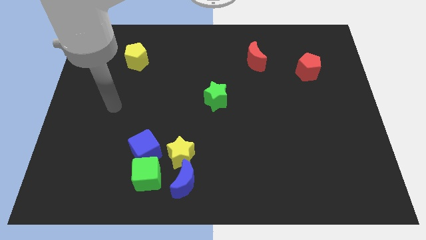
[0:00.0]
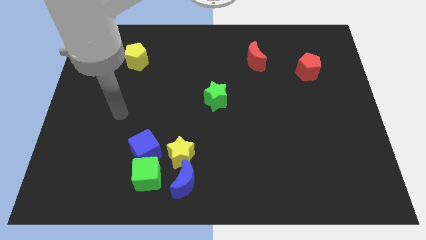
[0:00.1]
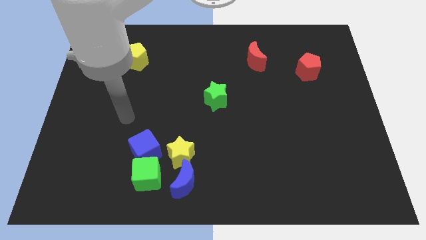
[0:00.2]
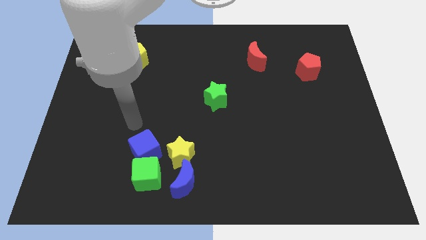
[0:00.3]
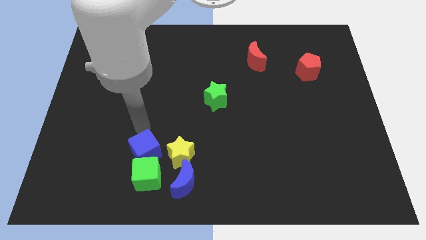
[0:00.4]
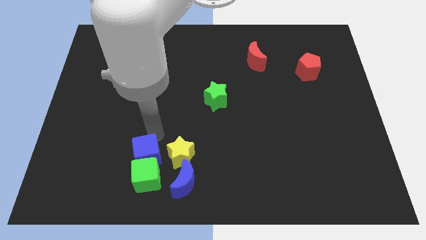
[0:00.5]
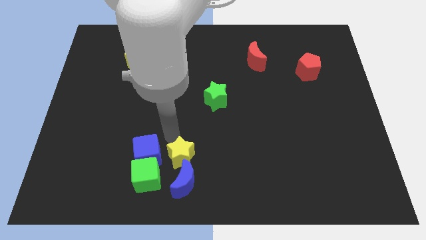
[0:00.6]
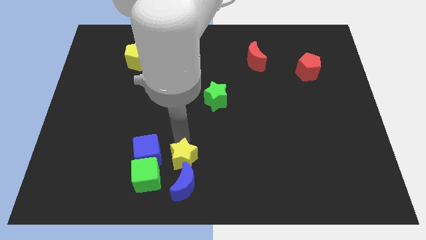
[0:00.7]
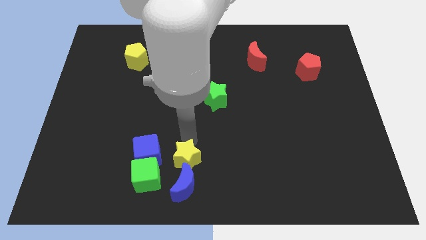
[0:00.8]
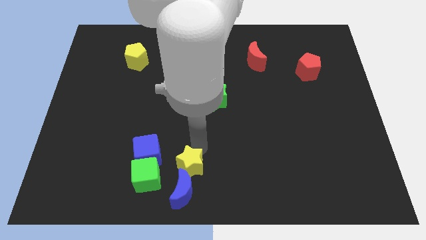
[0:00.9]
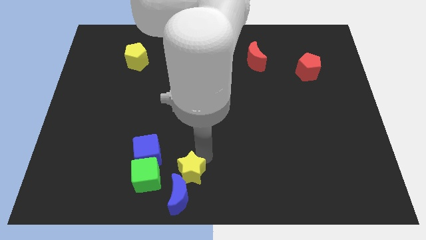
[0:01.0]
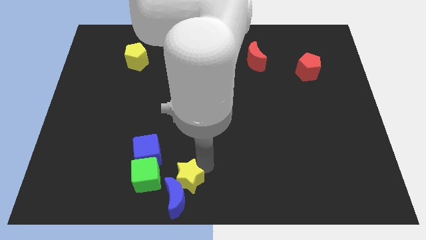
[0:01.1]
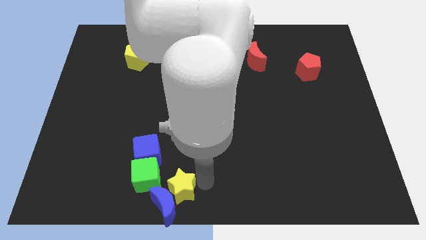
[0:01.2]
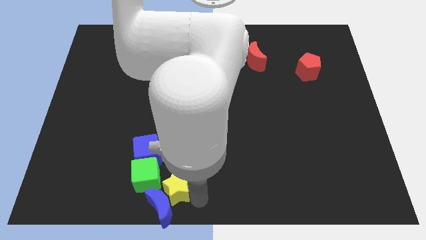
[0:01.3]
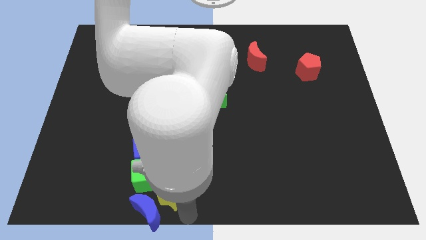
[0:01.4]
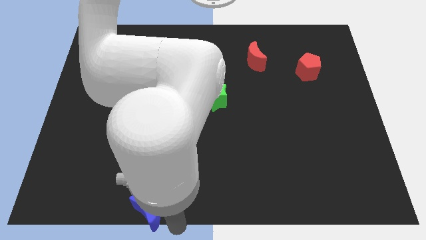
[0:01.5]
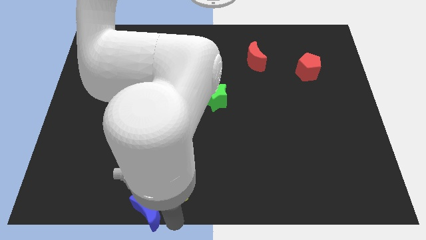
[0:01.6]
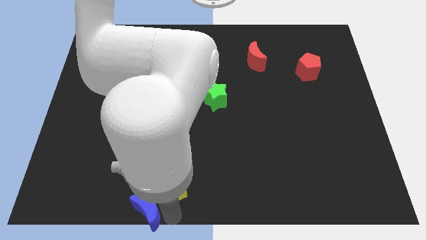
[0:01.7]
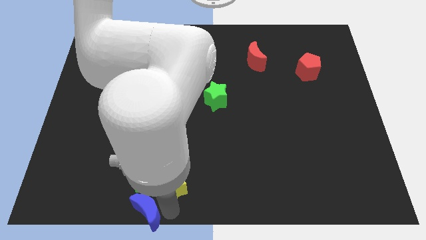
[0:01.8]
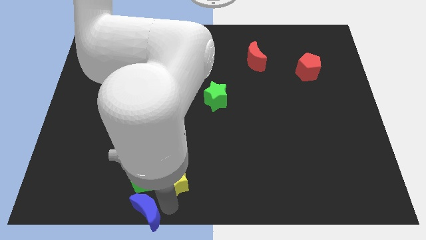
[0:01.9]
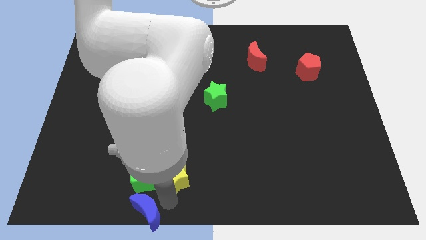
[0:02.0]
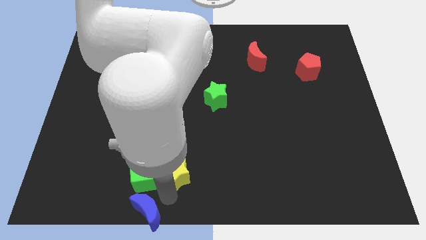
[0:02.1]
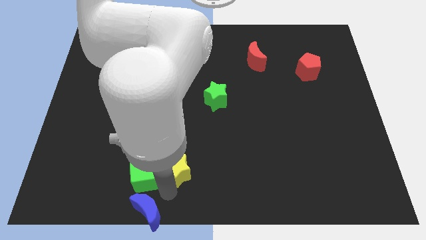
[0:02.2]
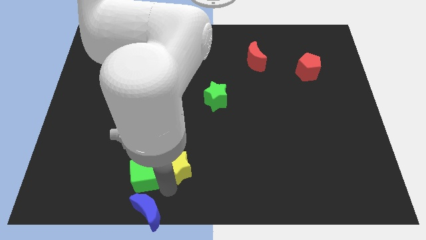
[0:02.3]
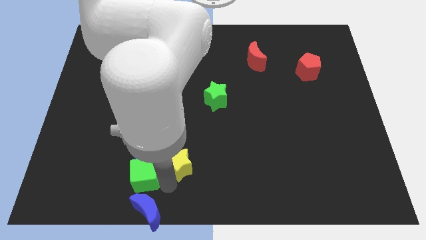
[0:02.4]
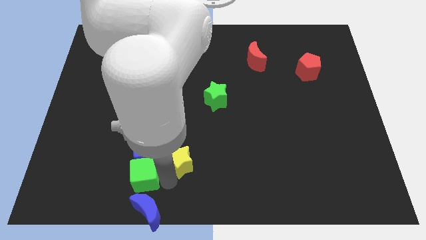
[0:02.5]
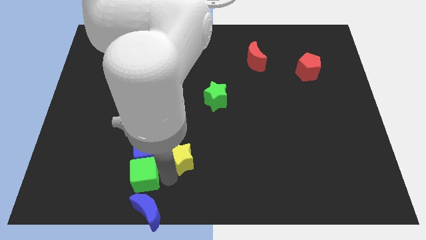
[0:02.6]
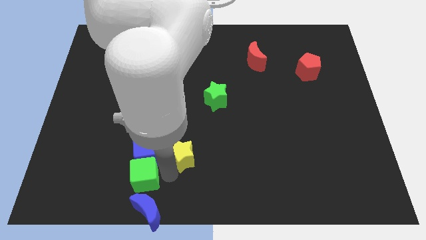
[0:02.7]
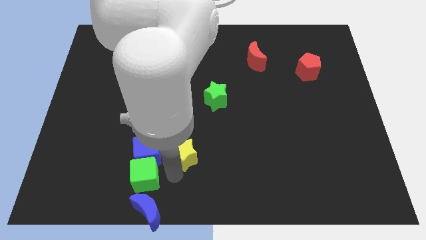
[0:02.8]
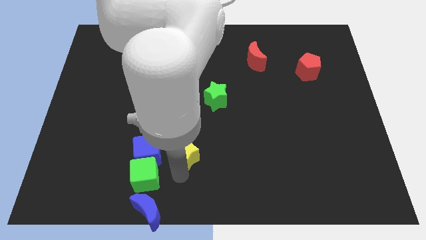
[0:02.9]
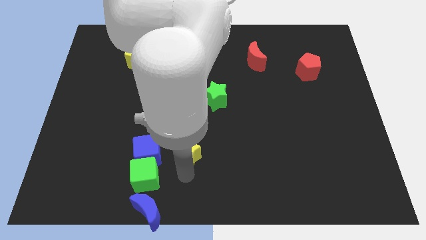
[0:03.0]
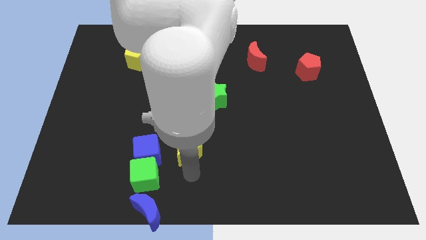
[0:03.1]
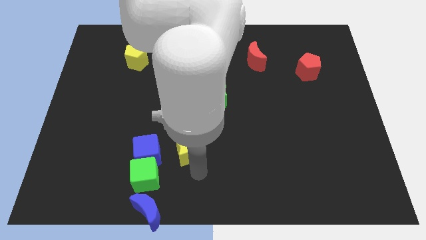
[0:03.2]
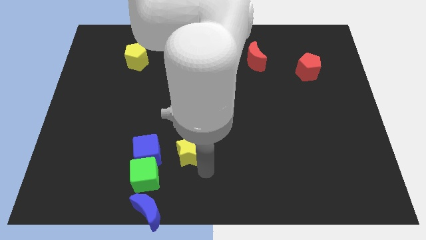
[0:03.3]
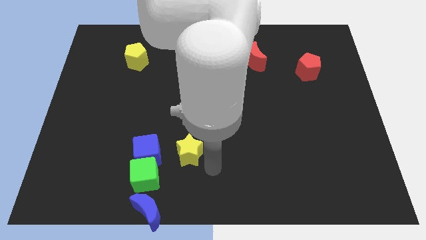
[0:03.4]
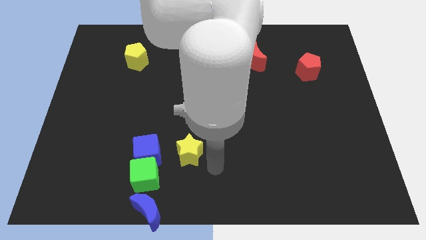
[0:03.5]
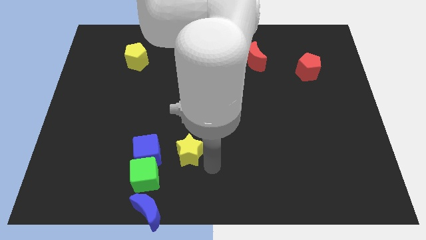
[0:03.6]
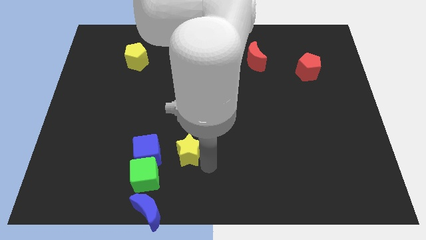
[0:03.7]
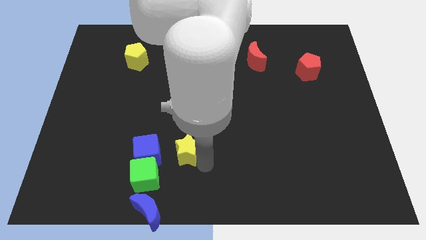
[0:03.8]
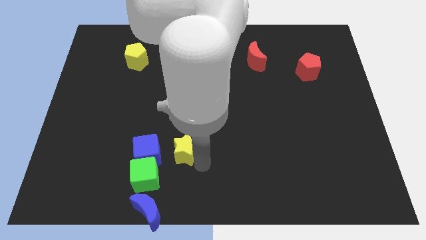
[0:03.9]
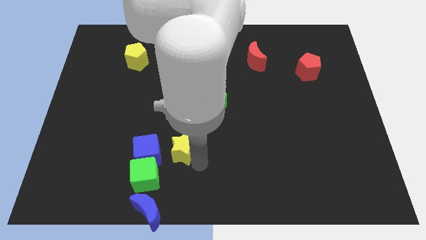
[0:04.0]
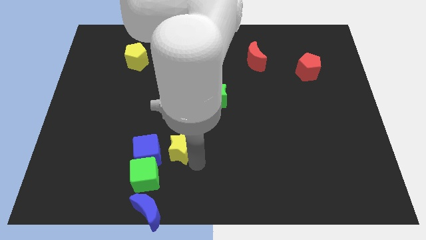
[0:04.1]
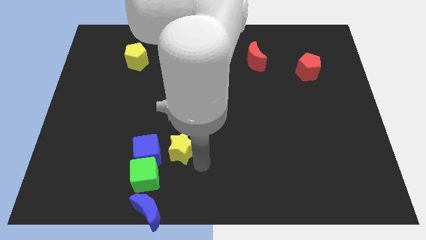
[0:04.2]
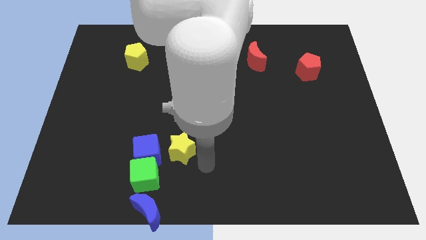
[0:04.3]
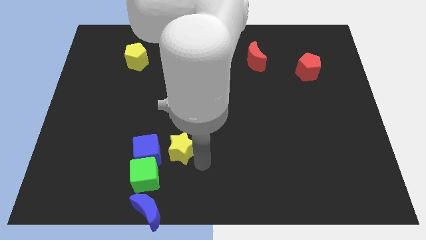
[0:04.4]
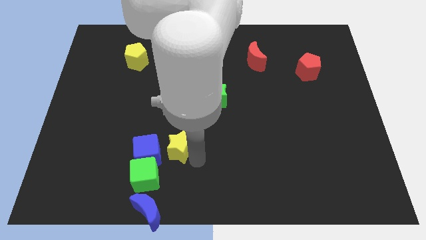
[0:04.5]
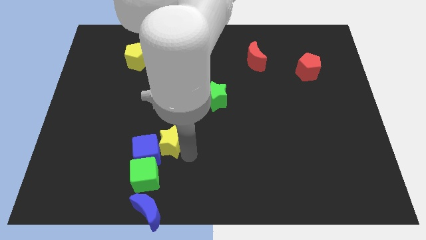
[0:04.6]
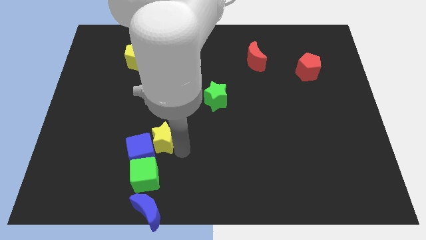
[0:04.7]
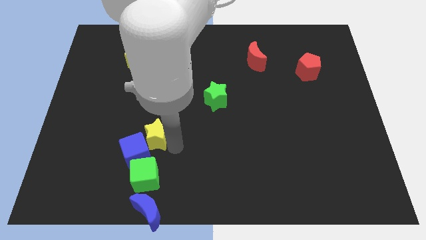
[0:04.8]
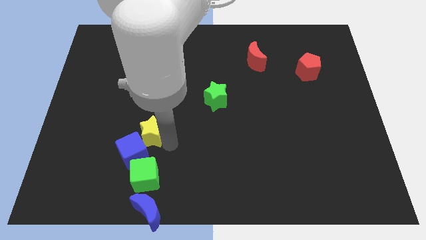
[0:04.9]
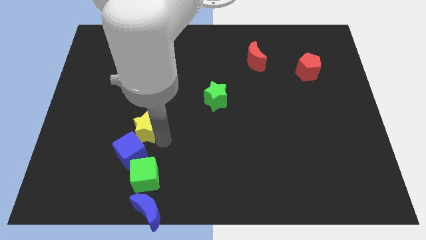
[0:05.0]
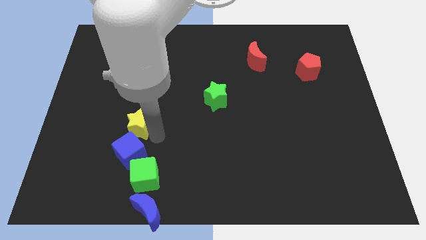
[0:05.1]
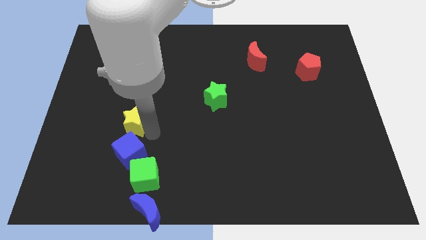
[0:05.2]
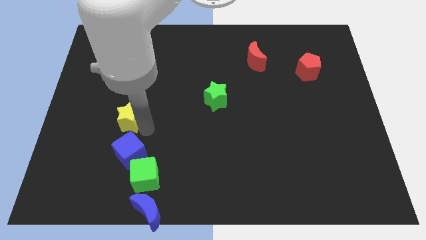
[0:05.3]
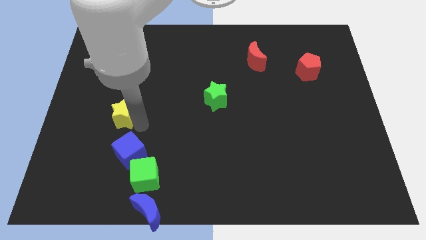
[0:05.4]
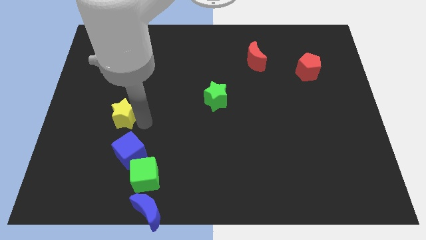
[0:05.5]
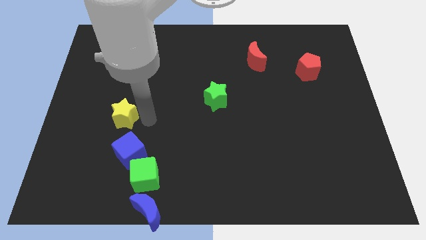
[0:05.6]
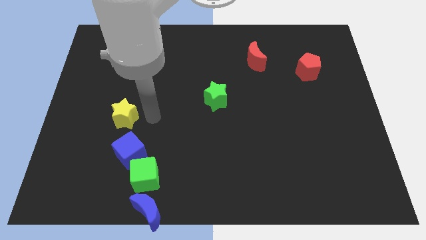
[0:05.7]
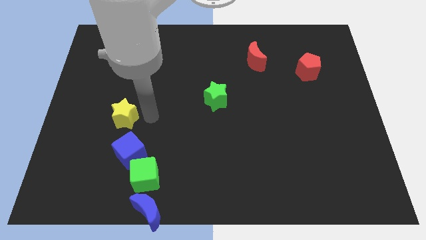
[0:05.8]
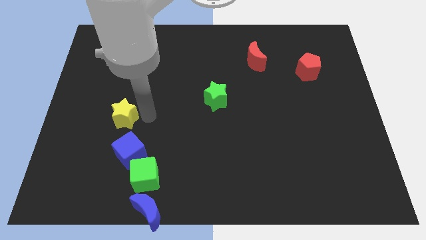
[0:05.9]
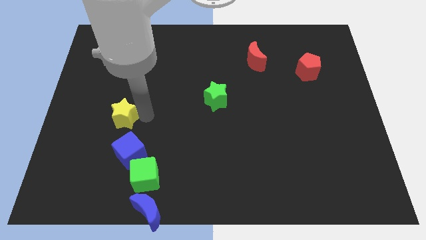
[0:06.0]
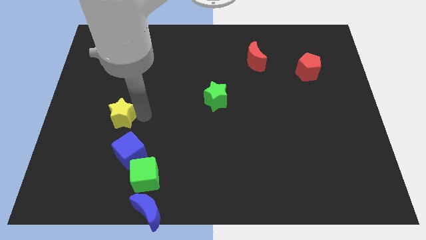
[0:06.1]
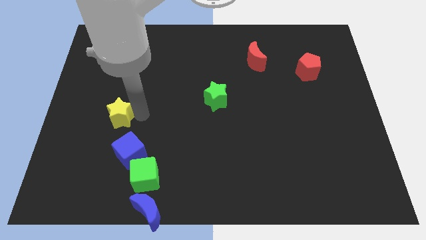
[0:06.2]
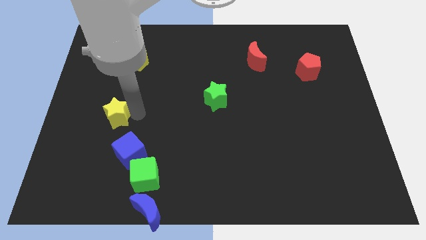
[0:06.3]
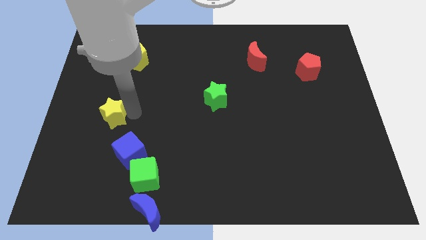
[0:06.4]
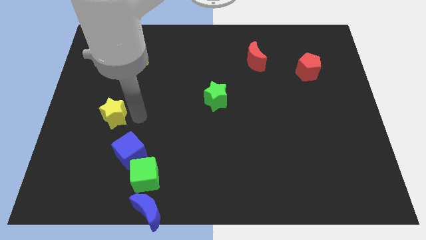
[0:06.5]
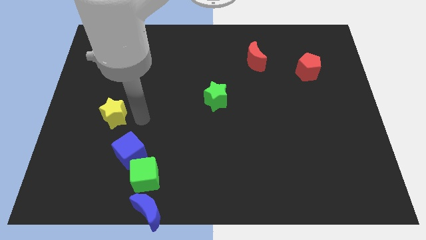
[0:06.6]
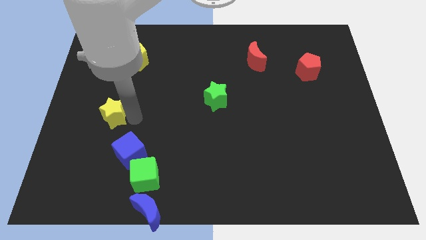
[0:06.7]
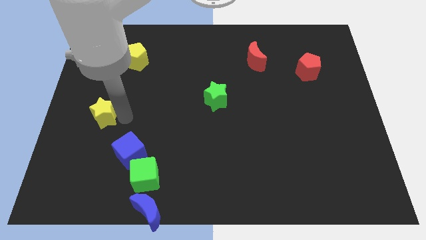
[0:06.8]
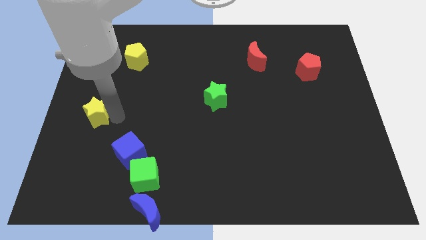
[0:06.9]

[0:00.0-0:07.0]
push the yellow star to the center left
